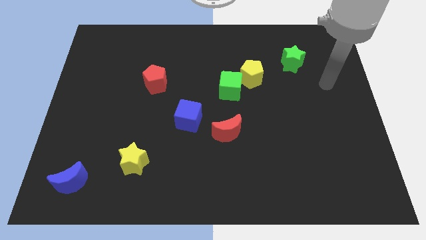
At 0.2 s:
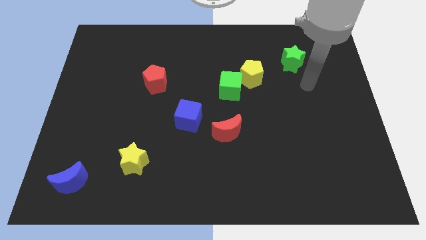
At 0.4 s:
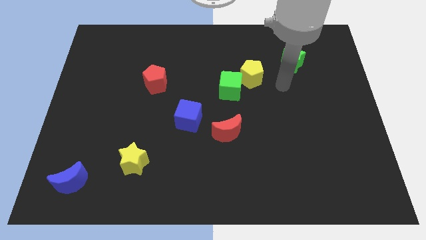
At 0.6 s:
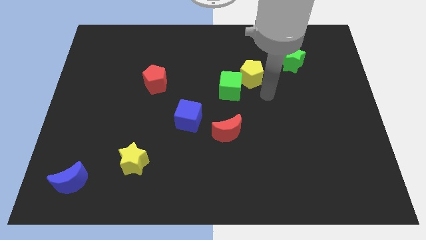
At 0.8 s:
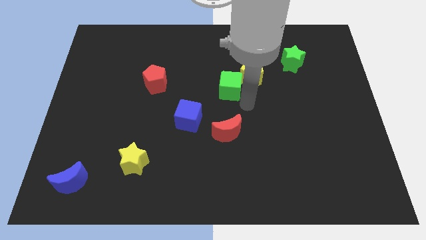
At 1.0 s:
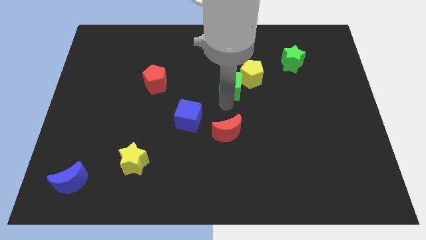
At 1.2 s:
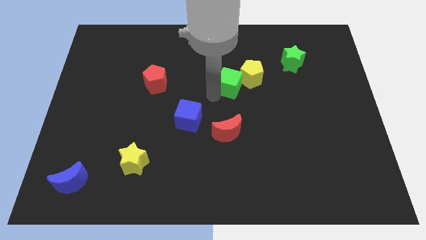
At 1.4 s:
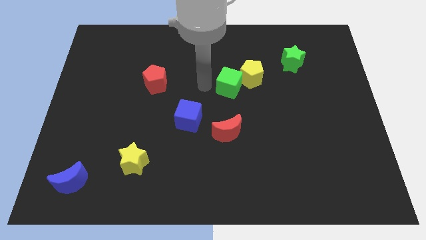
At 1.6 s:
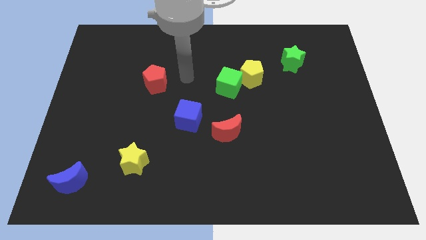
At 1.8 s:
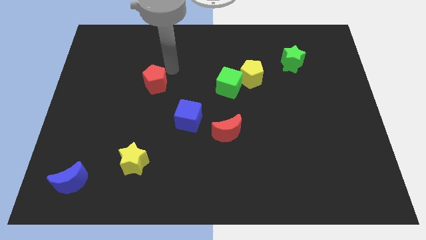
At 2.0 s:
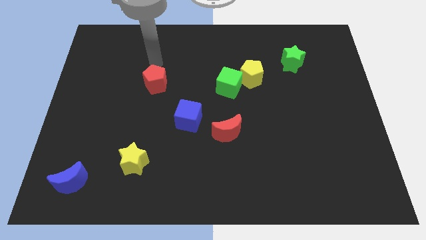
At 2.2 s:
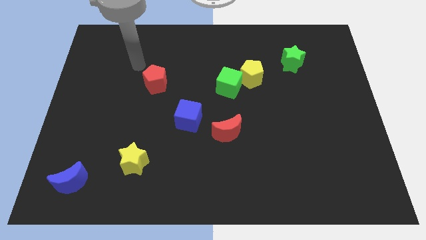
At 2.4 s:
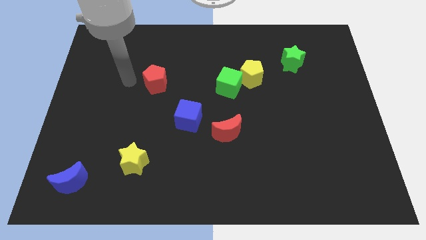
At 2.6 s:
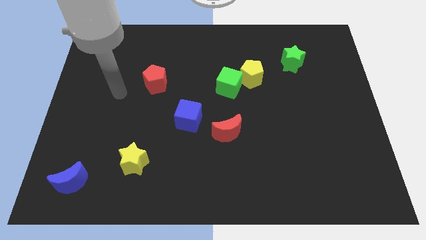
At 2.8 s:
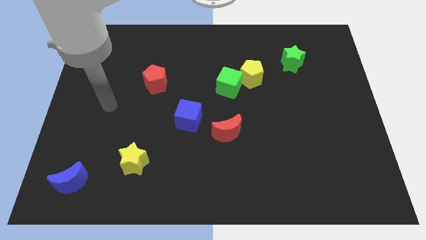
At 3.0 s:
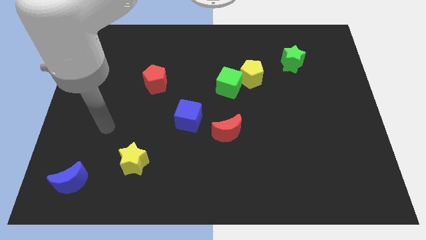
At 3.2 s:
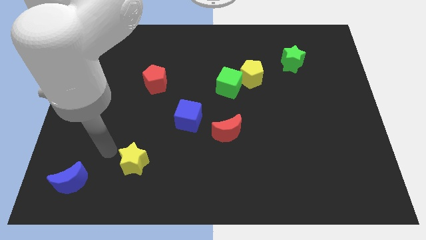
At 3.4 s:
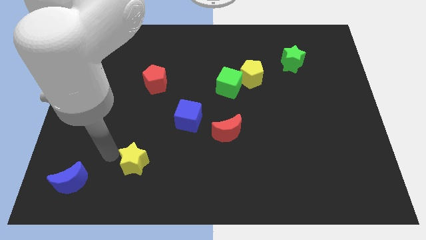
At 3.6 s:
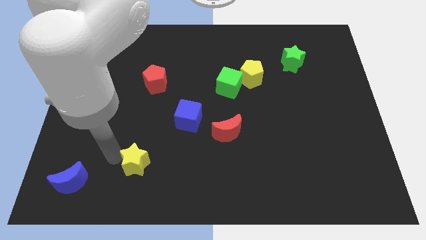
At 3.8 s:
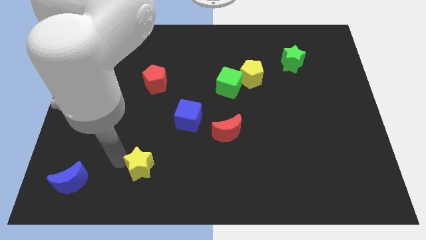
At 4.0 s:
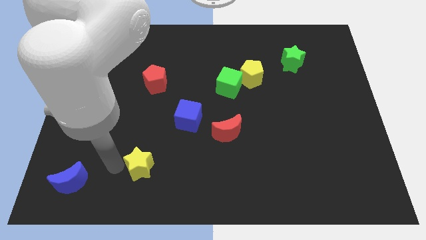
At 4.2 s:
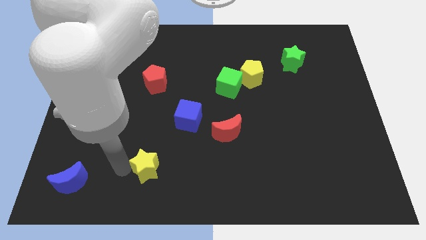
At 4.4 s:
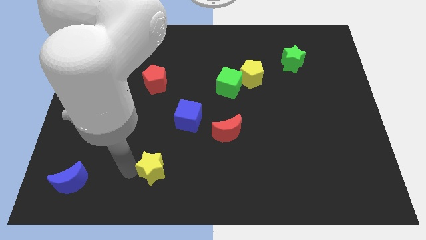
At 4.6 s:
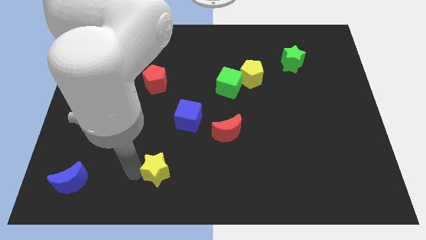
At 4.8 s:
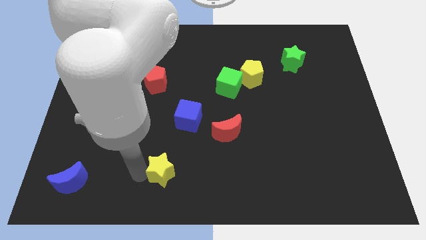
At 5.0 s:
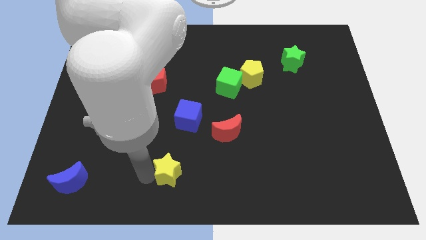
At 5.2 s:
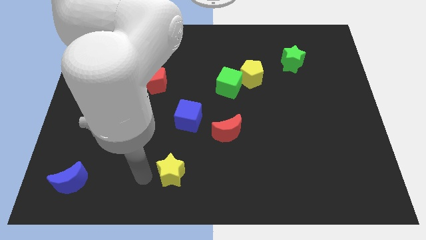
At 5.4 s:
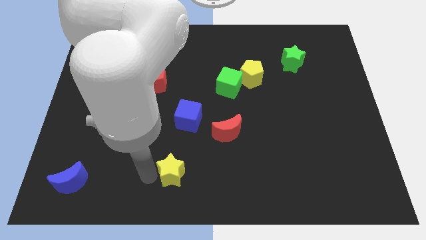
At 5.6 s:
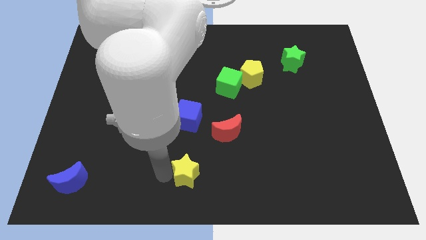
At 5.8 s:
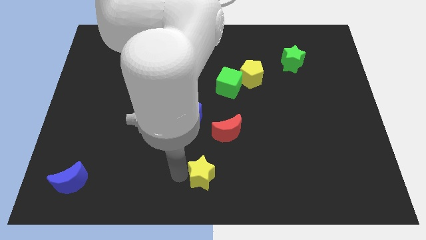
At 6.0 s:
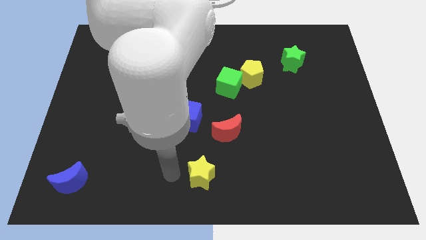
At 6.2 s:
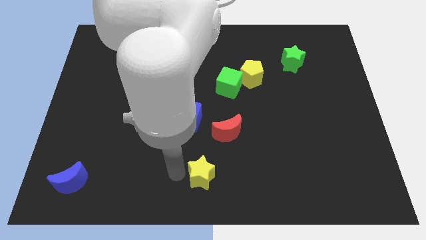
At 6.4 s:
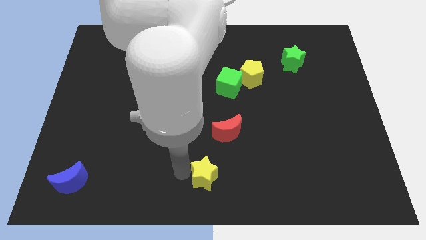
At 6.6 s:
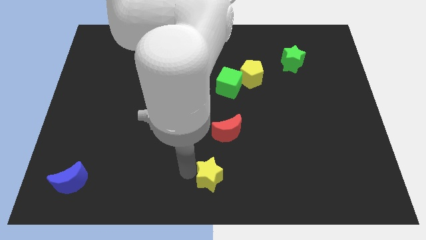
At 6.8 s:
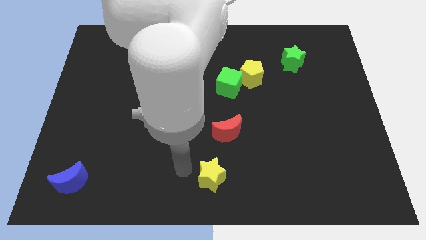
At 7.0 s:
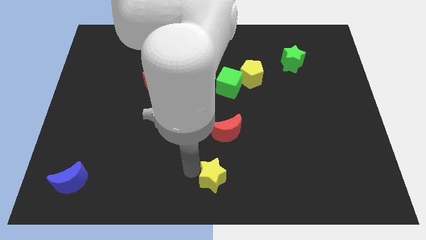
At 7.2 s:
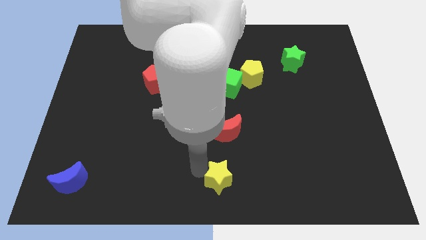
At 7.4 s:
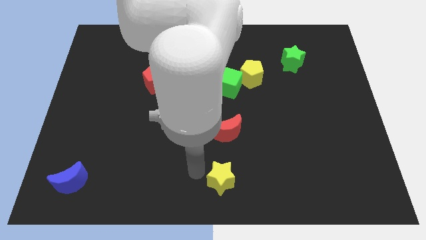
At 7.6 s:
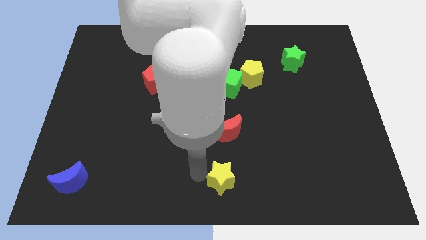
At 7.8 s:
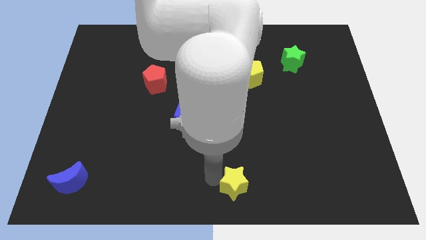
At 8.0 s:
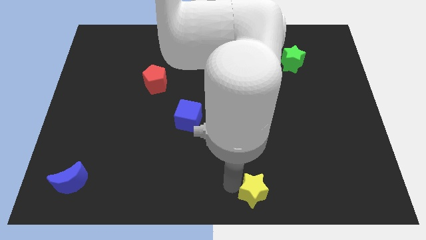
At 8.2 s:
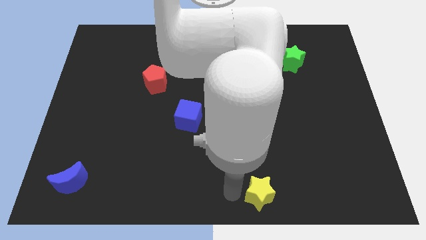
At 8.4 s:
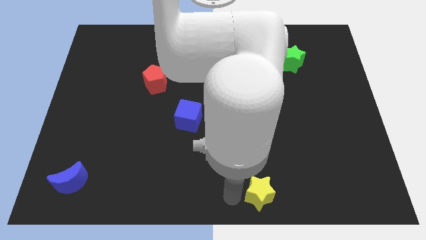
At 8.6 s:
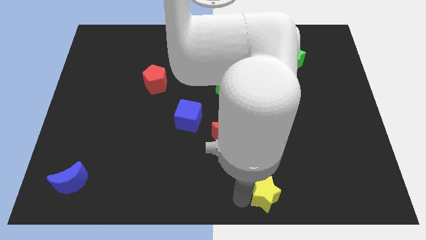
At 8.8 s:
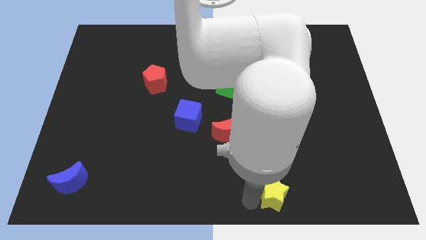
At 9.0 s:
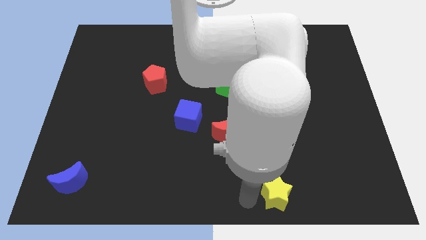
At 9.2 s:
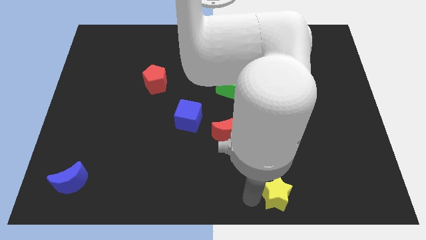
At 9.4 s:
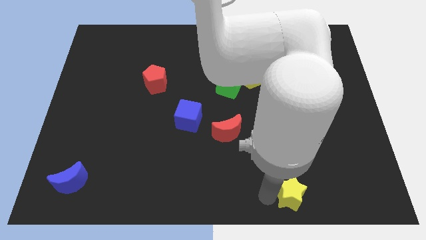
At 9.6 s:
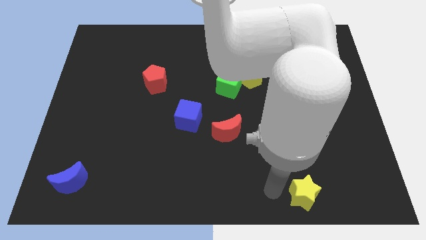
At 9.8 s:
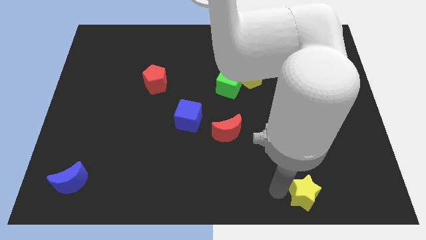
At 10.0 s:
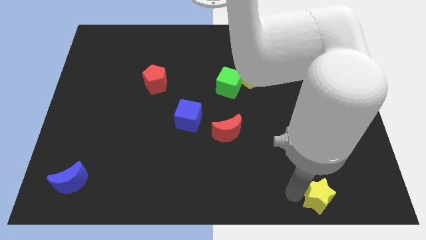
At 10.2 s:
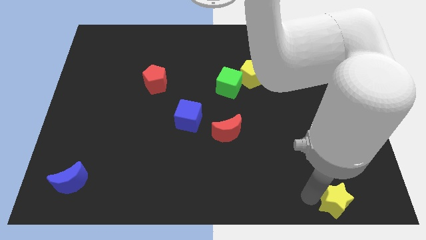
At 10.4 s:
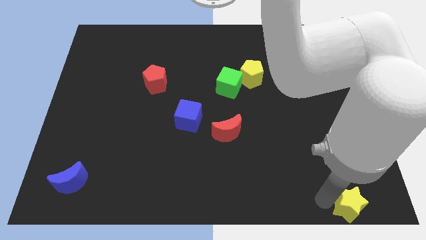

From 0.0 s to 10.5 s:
put the yellow star to the bottom right corner

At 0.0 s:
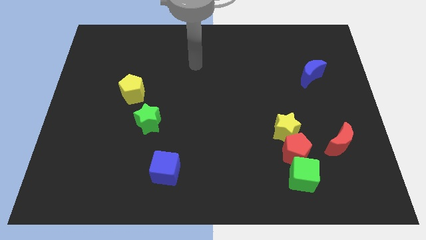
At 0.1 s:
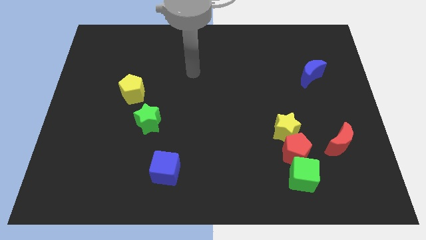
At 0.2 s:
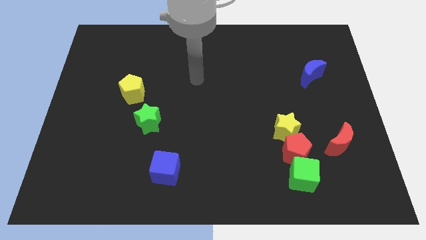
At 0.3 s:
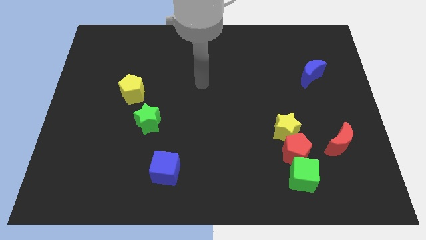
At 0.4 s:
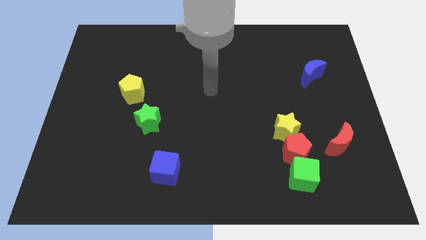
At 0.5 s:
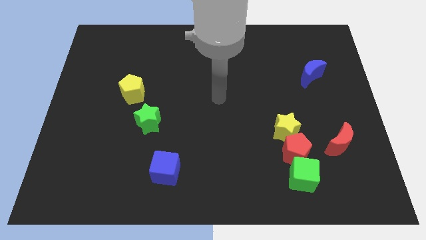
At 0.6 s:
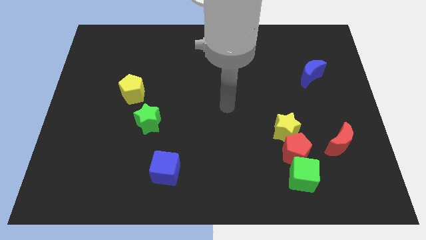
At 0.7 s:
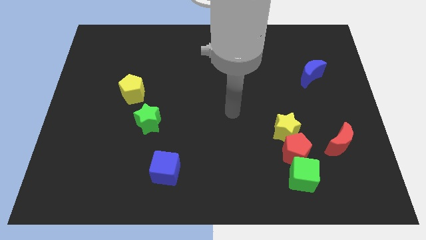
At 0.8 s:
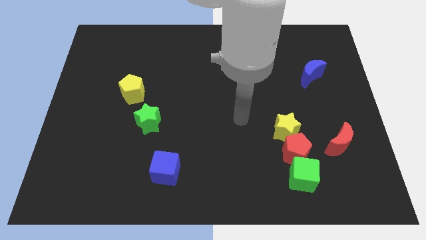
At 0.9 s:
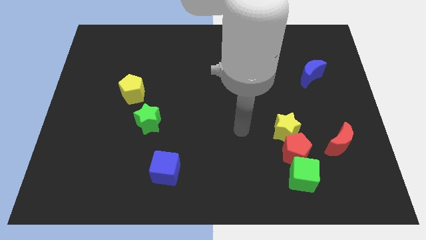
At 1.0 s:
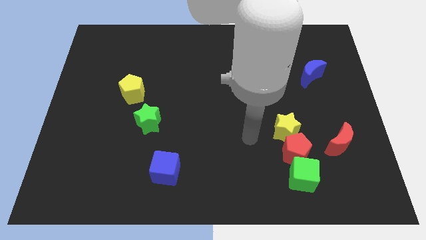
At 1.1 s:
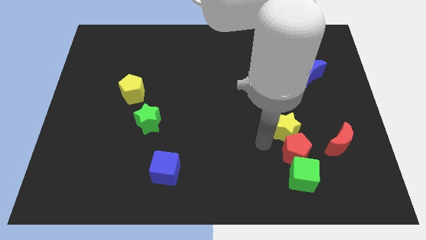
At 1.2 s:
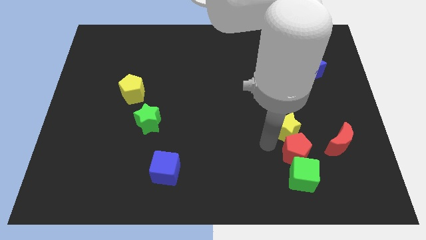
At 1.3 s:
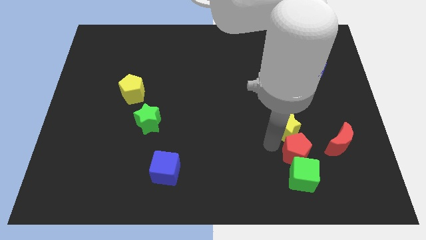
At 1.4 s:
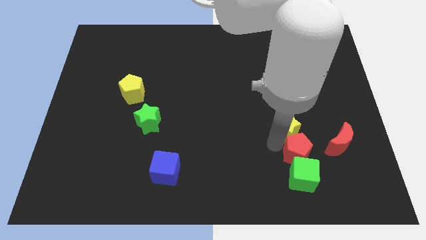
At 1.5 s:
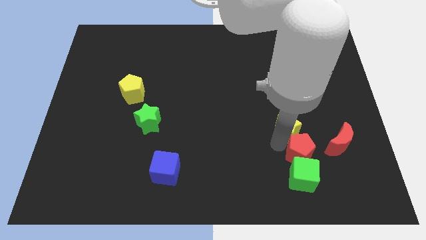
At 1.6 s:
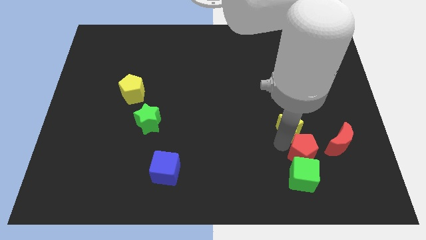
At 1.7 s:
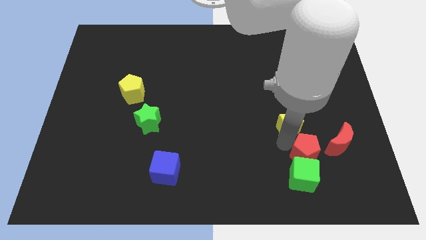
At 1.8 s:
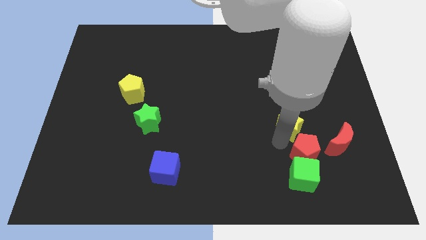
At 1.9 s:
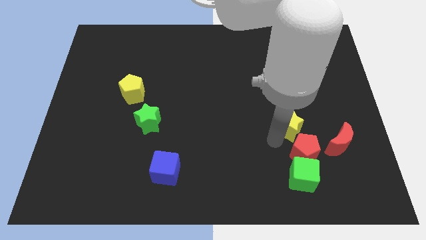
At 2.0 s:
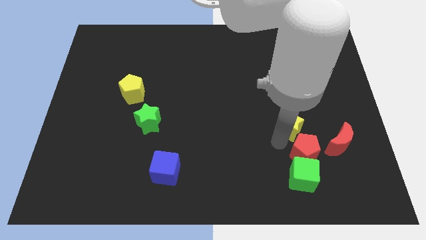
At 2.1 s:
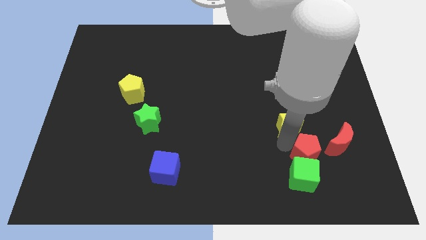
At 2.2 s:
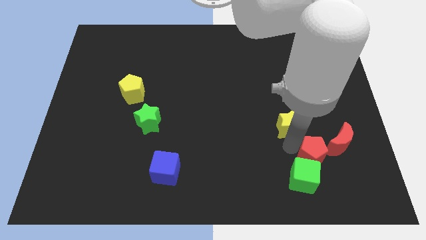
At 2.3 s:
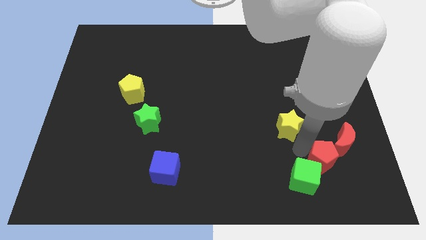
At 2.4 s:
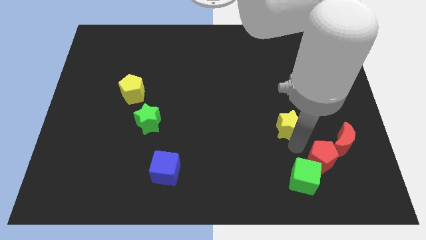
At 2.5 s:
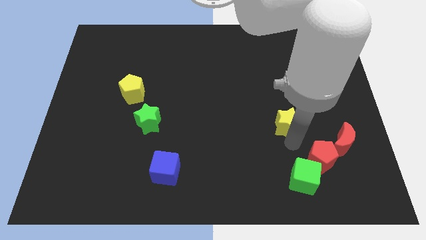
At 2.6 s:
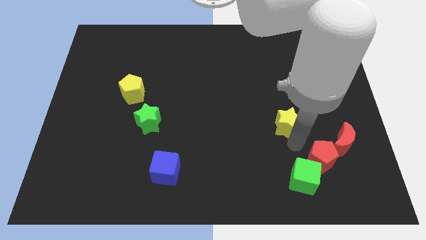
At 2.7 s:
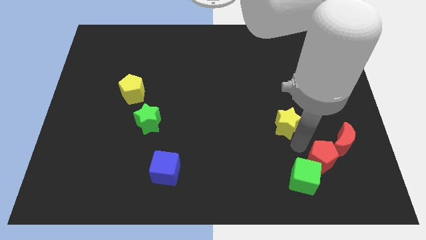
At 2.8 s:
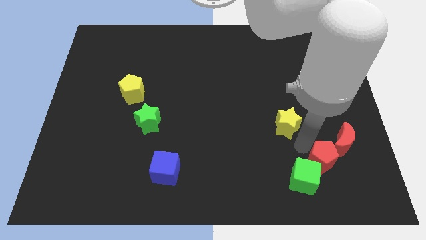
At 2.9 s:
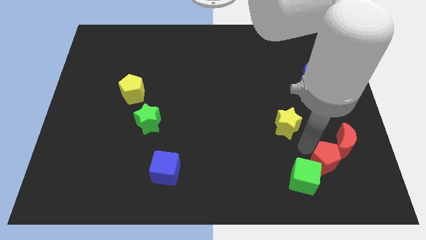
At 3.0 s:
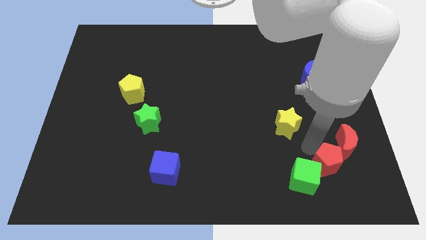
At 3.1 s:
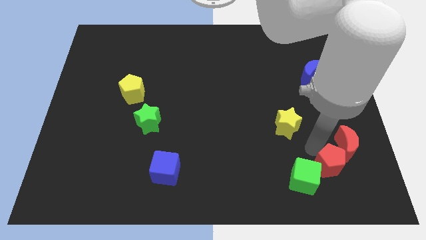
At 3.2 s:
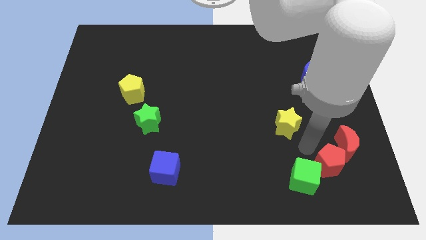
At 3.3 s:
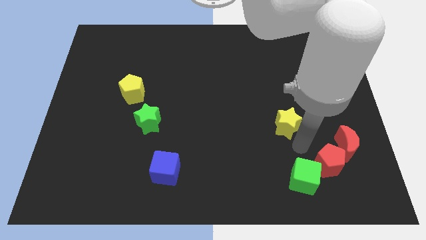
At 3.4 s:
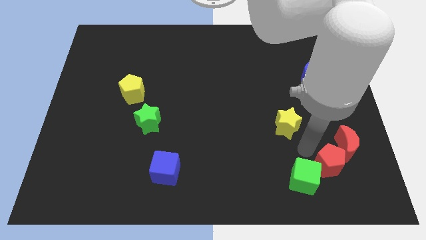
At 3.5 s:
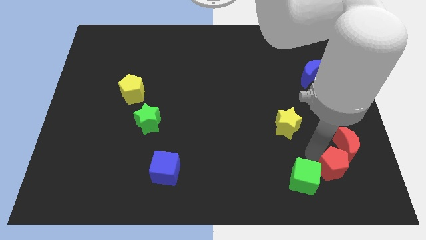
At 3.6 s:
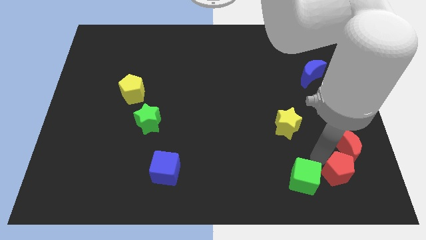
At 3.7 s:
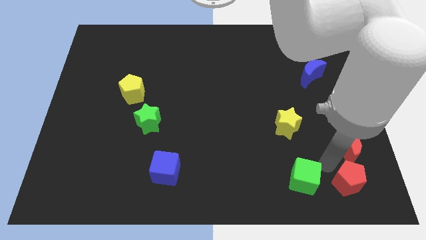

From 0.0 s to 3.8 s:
slide the red pentagon to the bottom right
